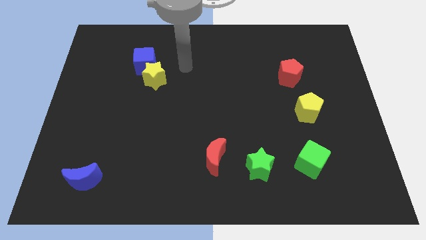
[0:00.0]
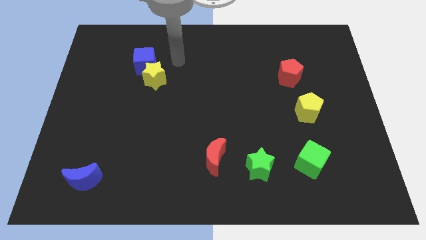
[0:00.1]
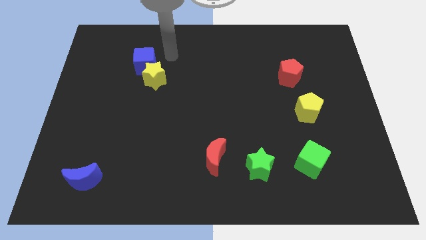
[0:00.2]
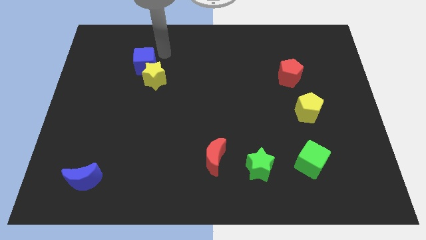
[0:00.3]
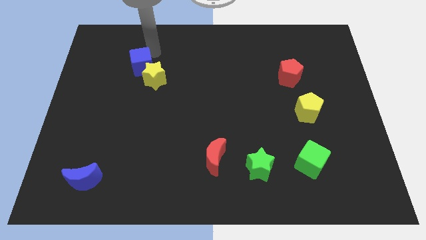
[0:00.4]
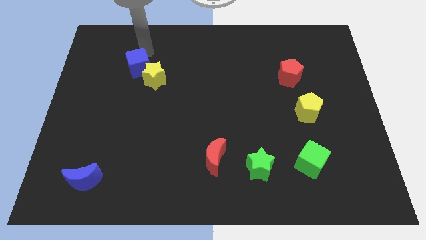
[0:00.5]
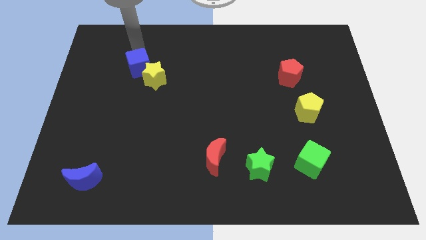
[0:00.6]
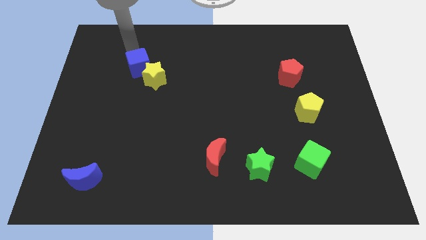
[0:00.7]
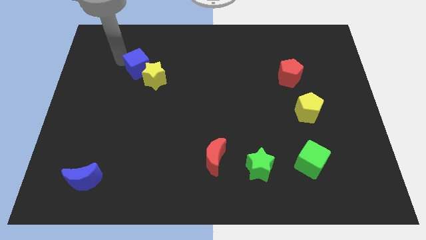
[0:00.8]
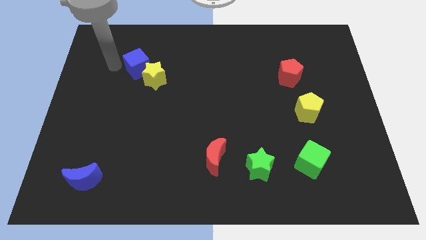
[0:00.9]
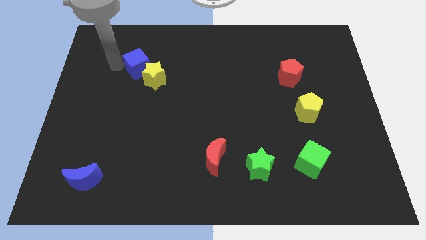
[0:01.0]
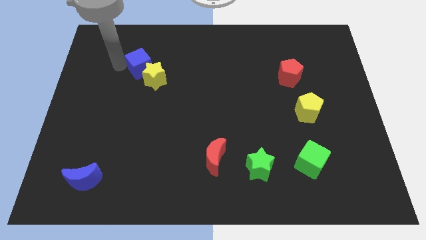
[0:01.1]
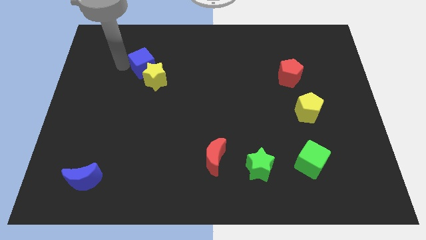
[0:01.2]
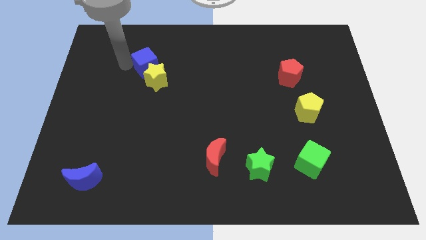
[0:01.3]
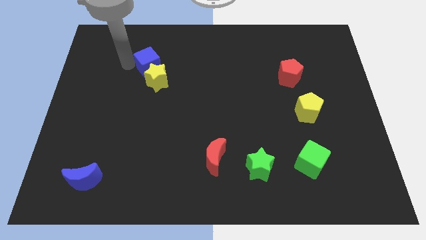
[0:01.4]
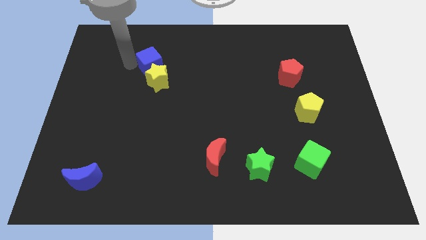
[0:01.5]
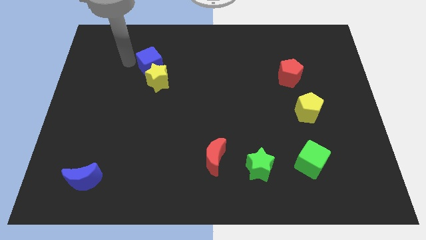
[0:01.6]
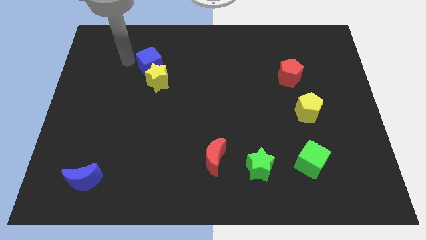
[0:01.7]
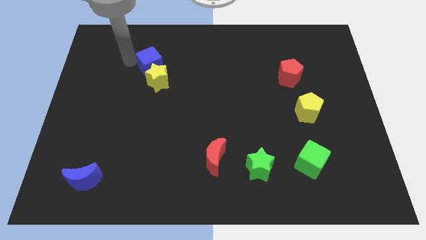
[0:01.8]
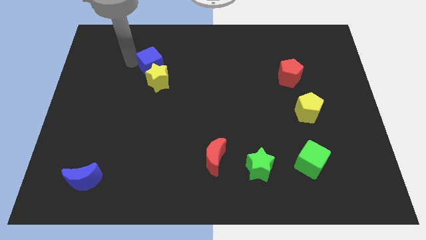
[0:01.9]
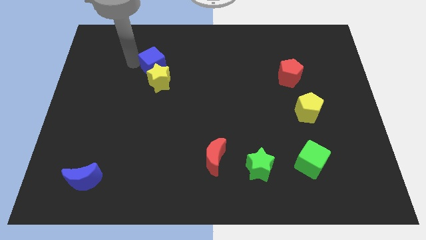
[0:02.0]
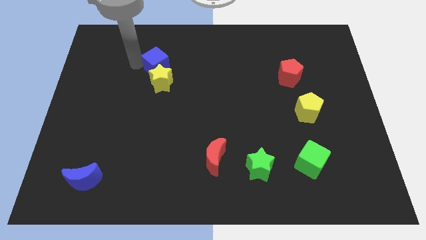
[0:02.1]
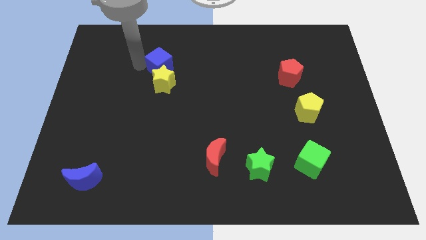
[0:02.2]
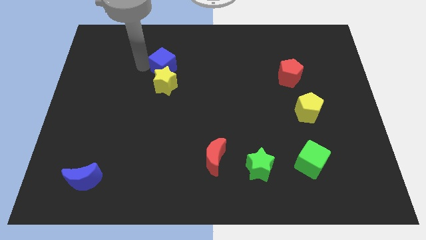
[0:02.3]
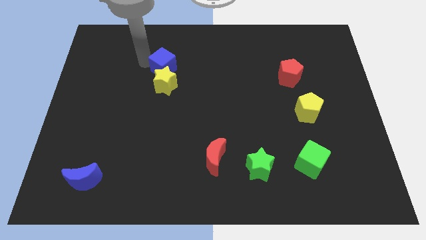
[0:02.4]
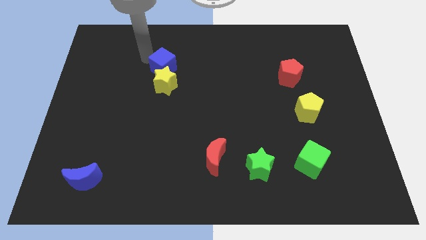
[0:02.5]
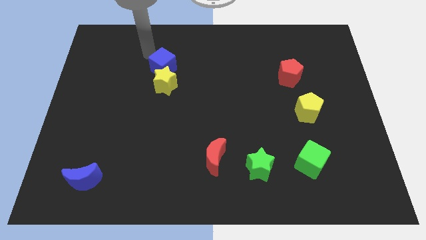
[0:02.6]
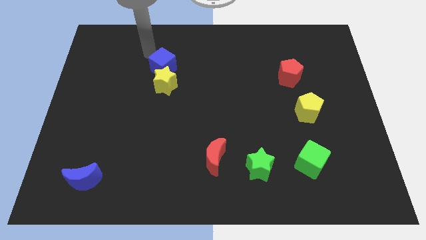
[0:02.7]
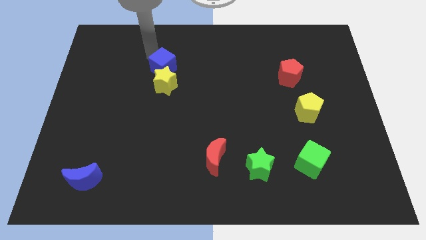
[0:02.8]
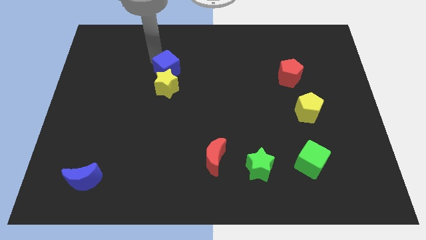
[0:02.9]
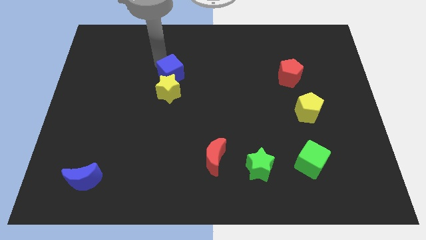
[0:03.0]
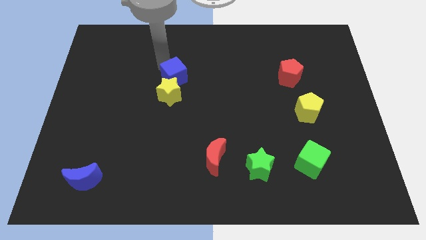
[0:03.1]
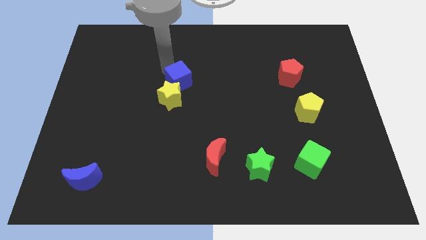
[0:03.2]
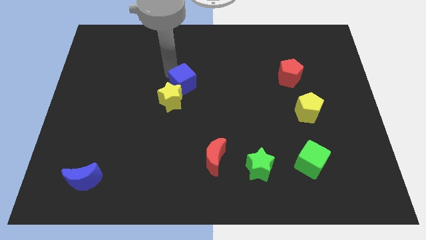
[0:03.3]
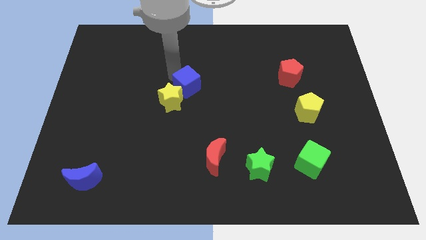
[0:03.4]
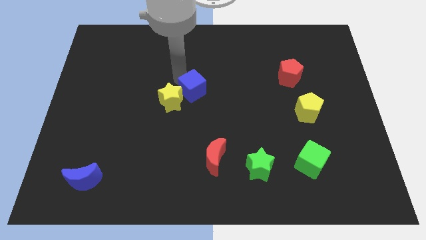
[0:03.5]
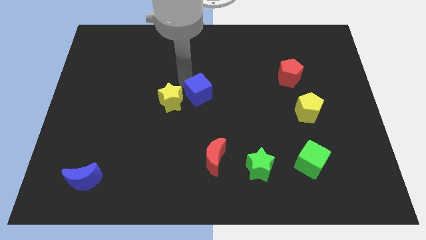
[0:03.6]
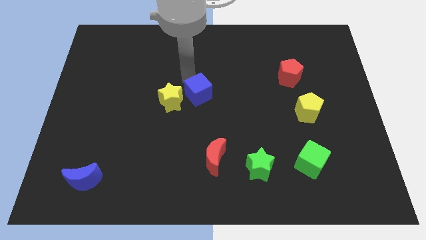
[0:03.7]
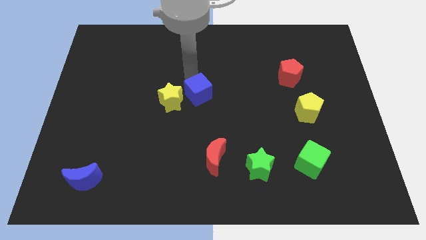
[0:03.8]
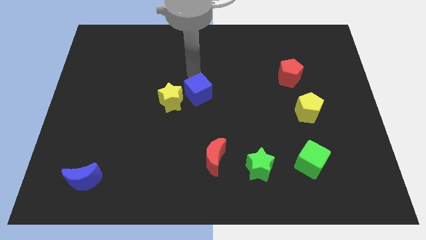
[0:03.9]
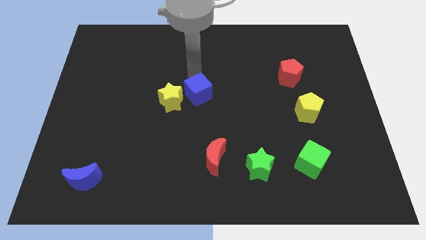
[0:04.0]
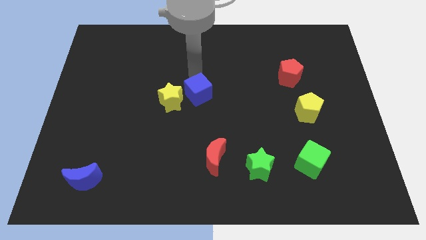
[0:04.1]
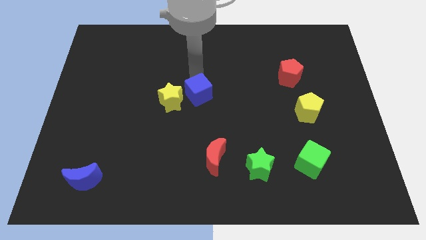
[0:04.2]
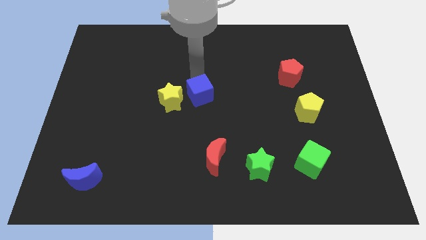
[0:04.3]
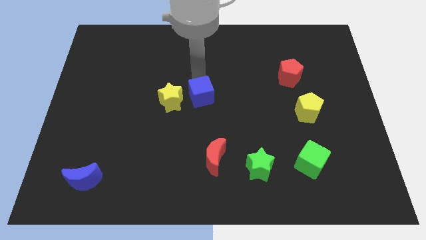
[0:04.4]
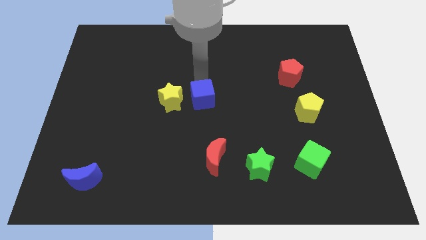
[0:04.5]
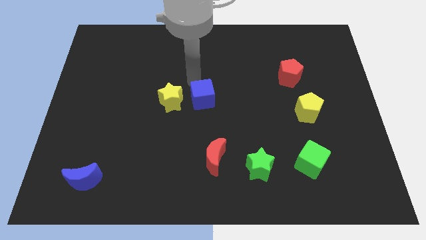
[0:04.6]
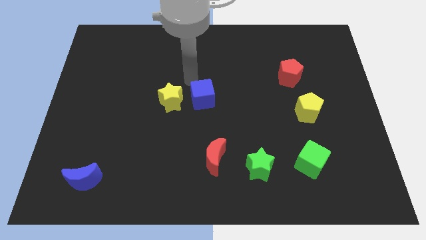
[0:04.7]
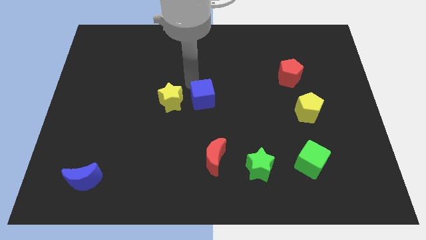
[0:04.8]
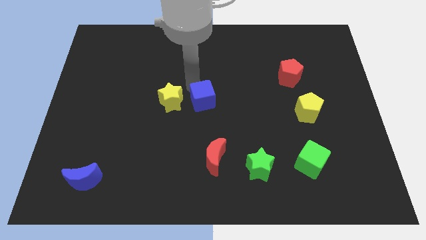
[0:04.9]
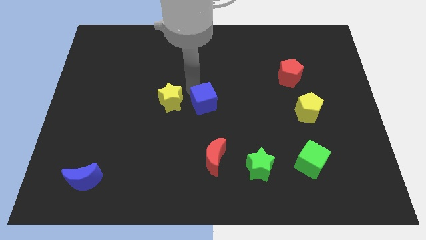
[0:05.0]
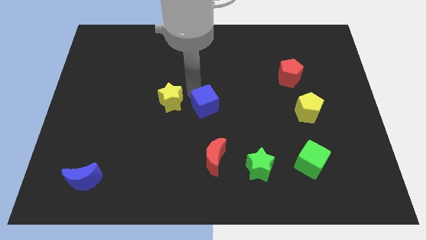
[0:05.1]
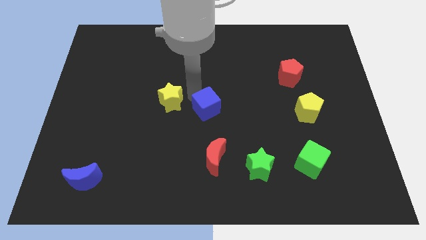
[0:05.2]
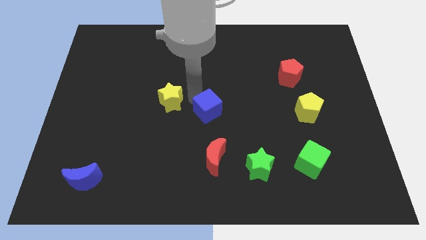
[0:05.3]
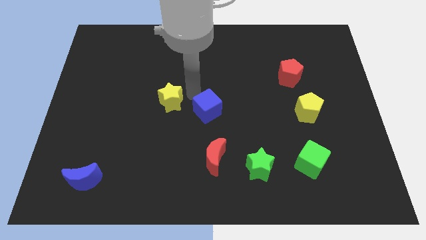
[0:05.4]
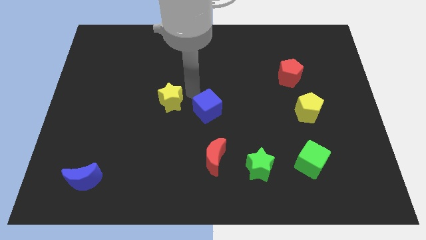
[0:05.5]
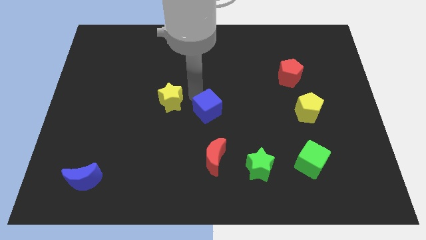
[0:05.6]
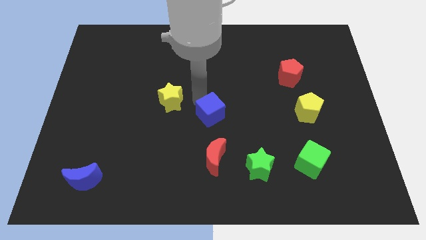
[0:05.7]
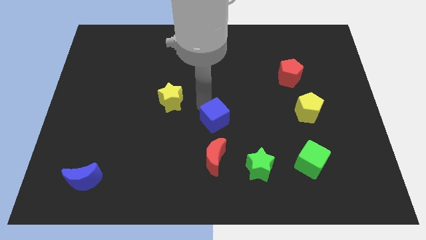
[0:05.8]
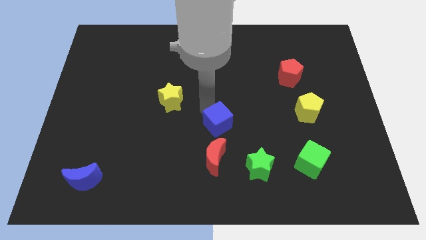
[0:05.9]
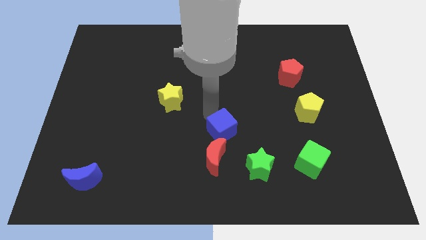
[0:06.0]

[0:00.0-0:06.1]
push the blue cube to the top right side of the red moon

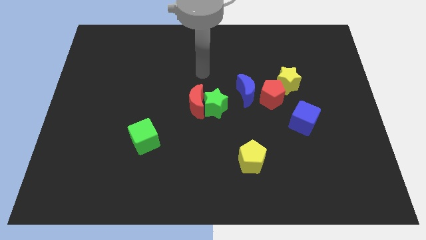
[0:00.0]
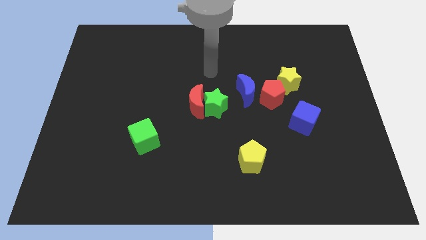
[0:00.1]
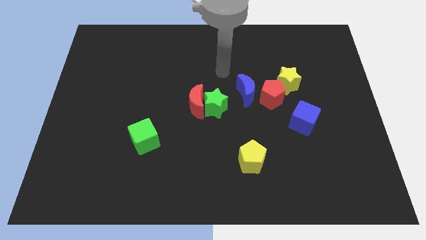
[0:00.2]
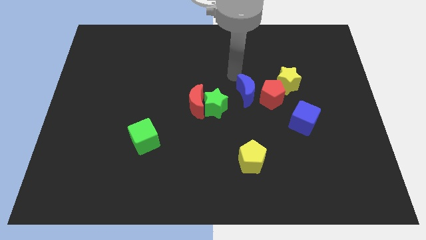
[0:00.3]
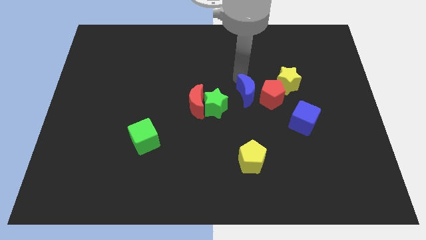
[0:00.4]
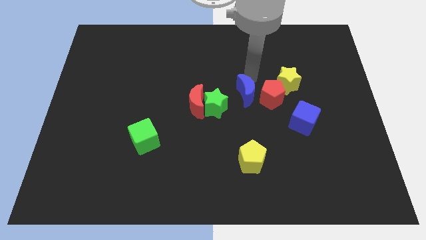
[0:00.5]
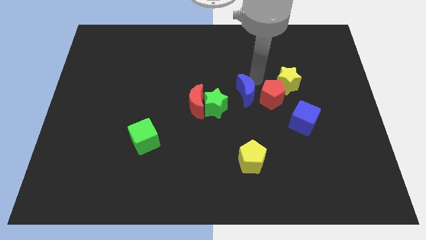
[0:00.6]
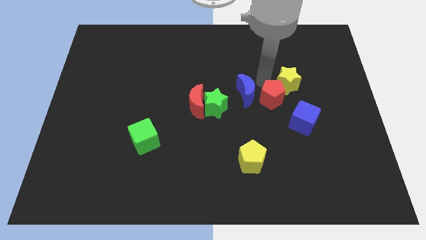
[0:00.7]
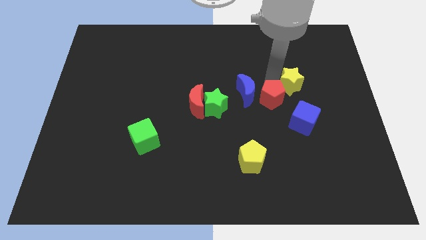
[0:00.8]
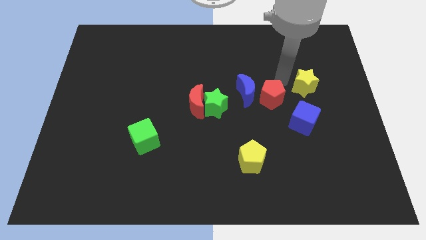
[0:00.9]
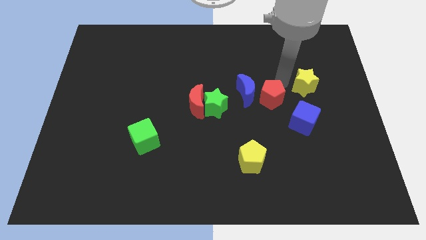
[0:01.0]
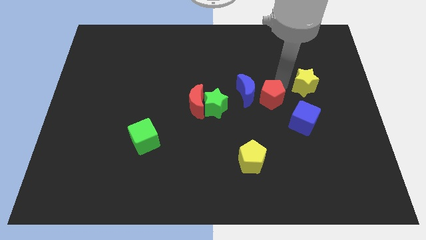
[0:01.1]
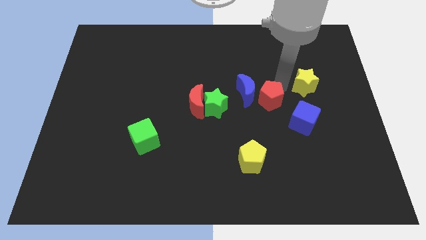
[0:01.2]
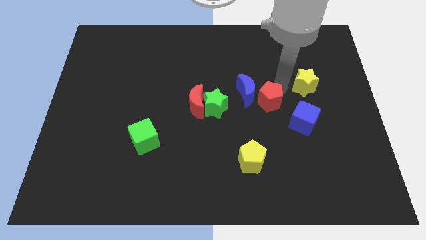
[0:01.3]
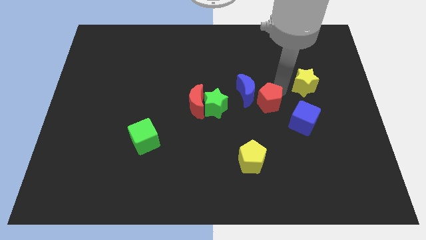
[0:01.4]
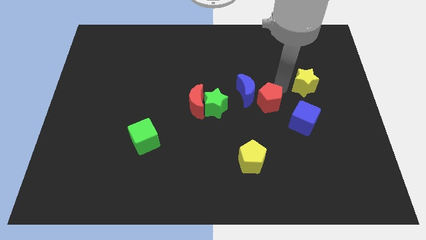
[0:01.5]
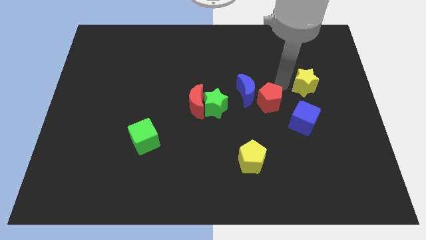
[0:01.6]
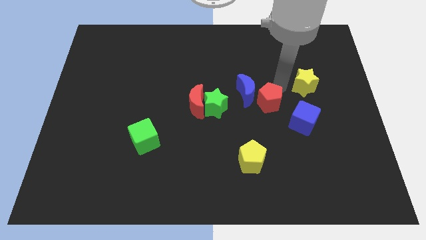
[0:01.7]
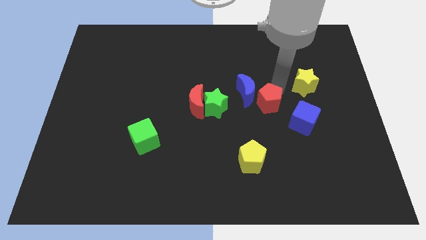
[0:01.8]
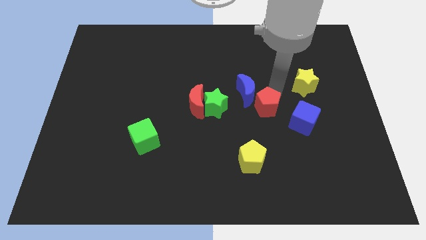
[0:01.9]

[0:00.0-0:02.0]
put the red pentagon right of the red moon
